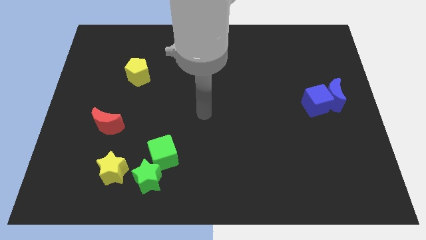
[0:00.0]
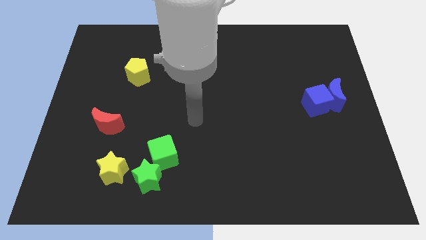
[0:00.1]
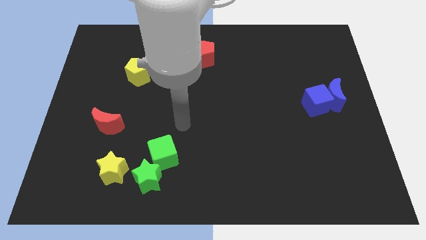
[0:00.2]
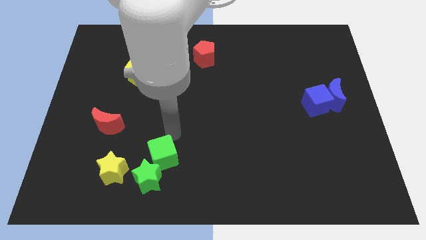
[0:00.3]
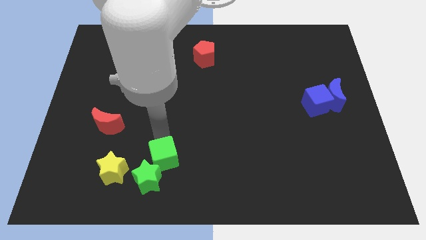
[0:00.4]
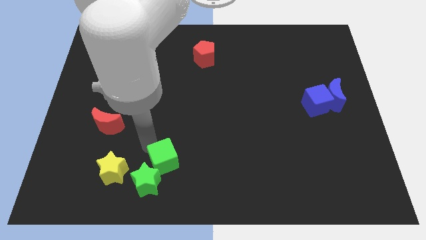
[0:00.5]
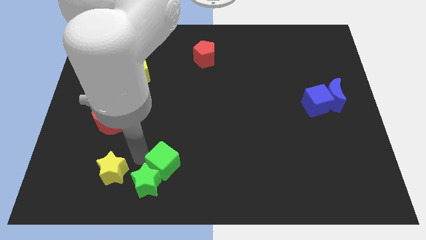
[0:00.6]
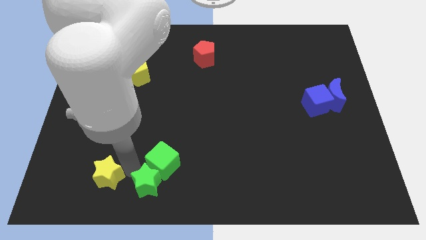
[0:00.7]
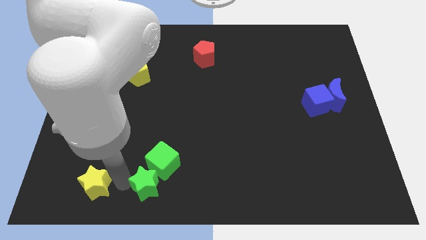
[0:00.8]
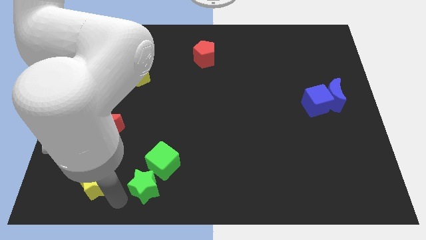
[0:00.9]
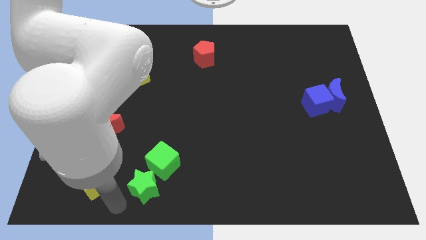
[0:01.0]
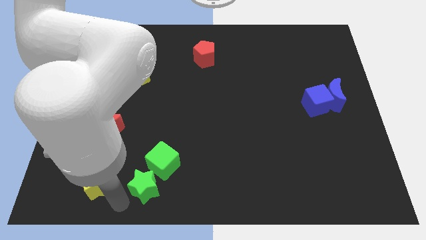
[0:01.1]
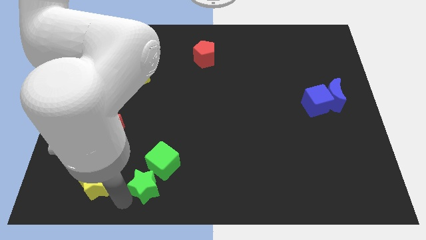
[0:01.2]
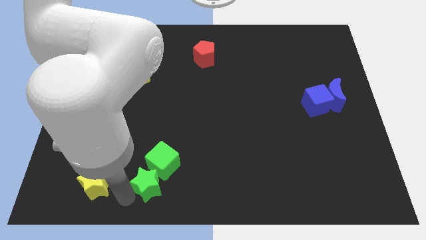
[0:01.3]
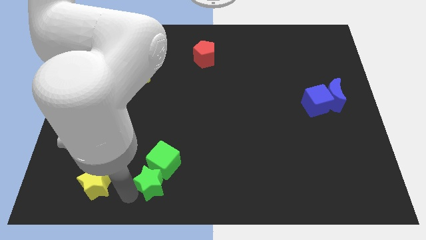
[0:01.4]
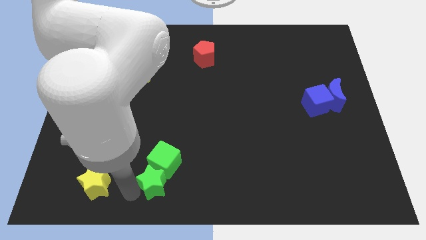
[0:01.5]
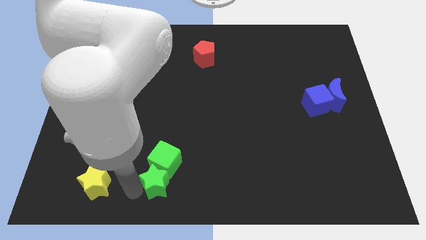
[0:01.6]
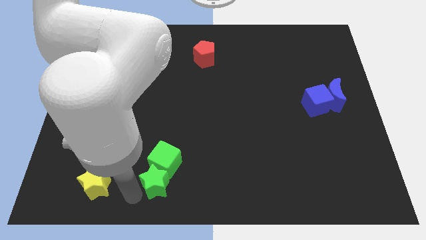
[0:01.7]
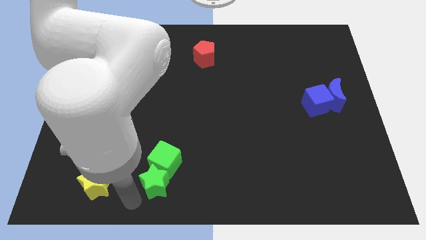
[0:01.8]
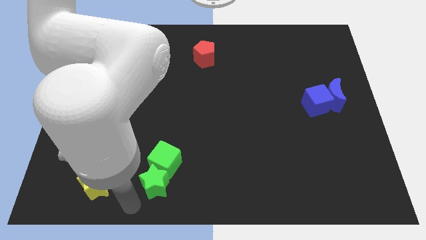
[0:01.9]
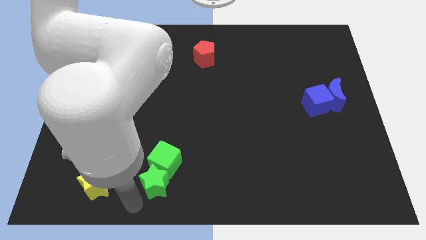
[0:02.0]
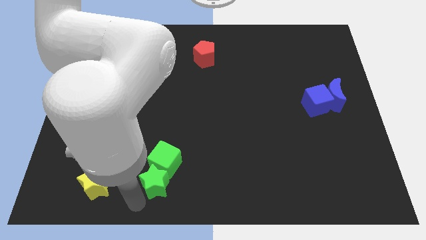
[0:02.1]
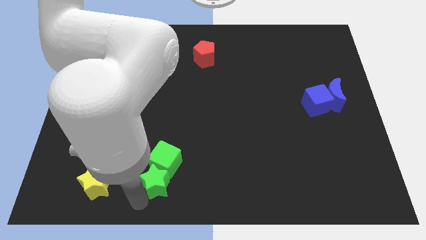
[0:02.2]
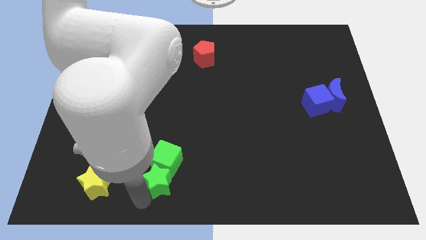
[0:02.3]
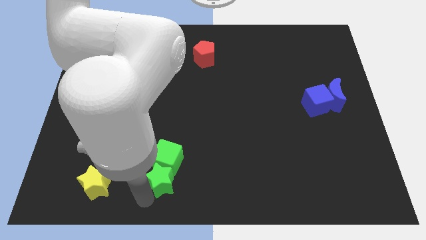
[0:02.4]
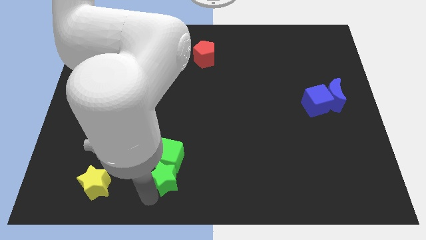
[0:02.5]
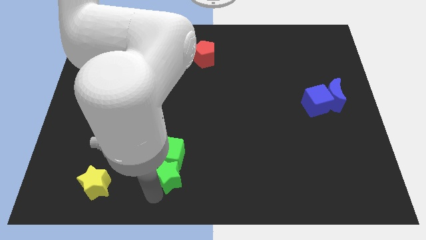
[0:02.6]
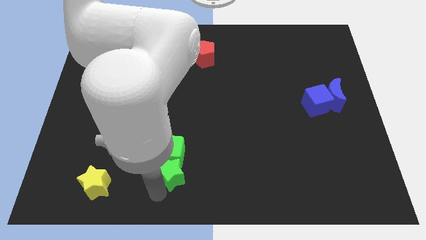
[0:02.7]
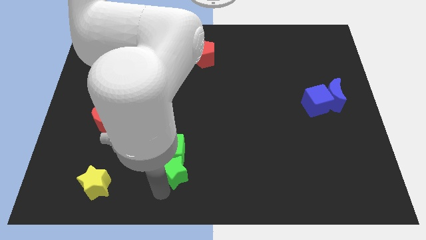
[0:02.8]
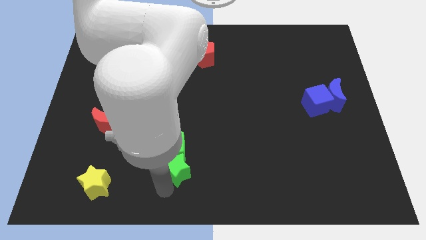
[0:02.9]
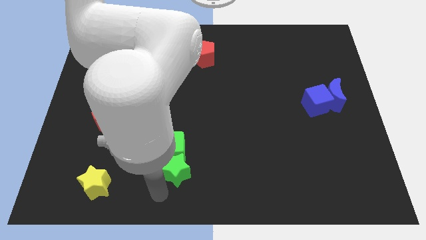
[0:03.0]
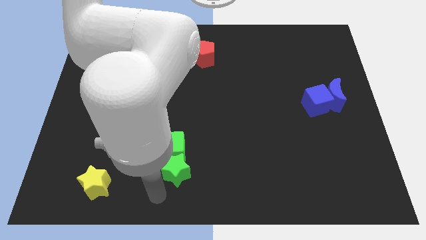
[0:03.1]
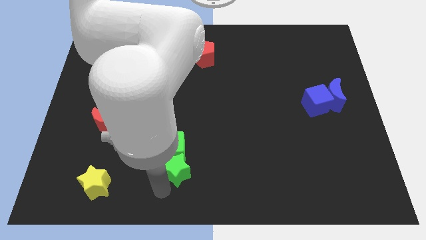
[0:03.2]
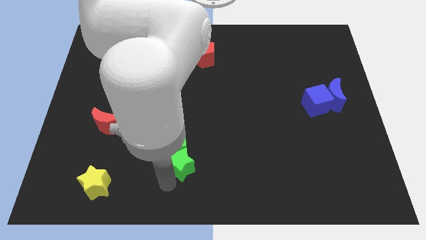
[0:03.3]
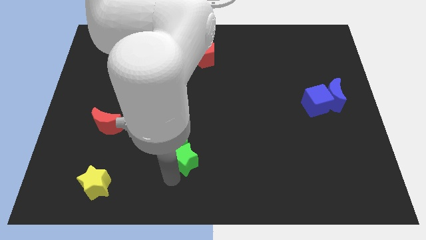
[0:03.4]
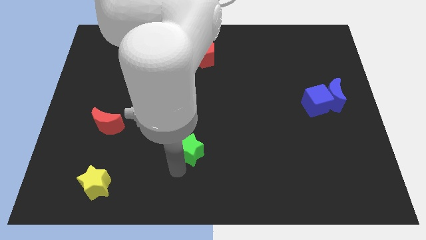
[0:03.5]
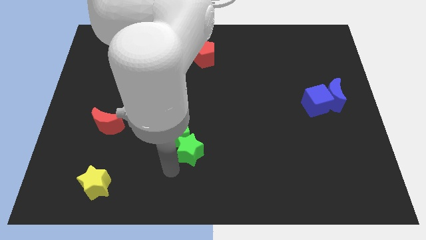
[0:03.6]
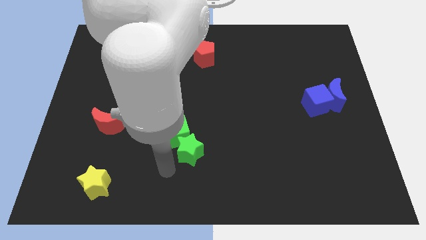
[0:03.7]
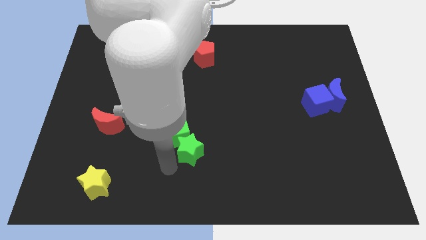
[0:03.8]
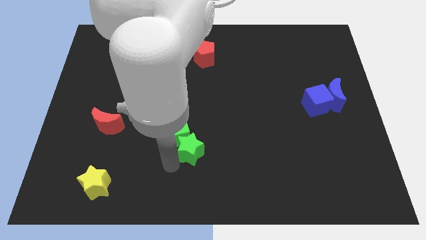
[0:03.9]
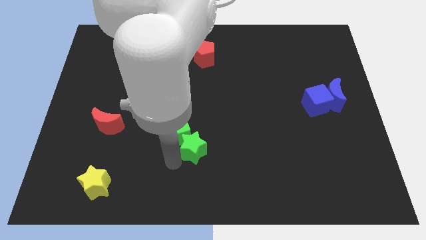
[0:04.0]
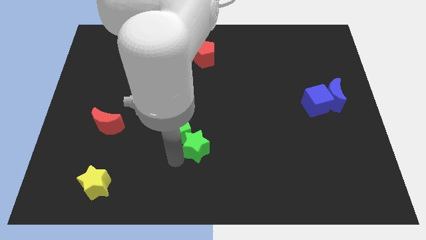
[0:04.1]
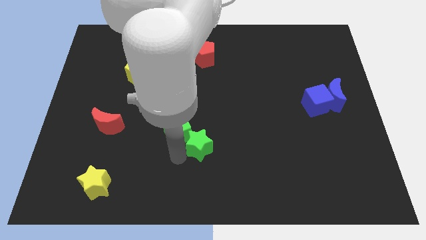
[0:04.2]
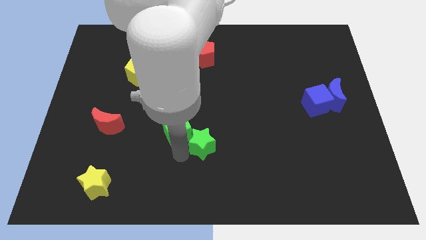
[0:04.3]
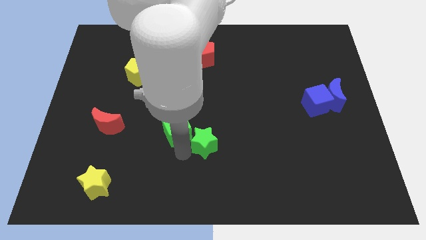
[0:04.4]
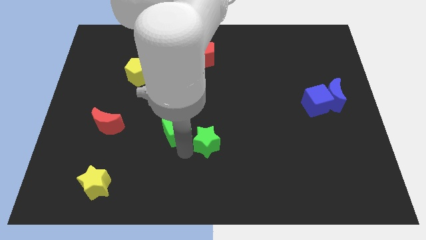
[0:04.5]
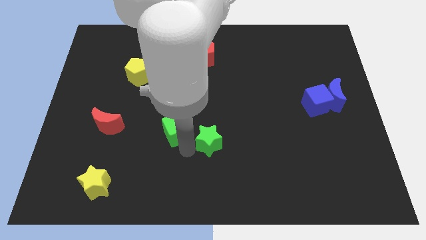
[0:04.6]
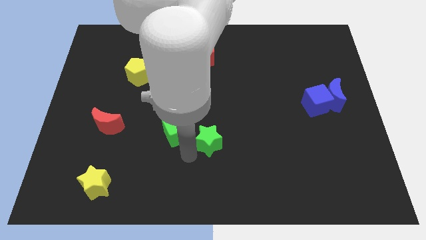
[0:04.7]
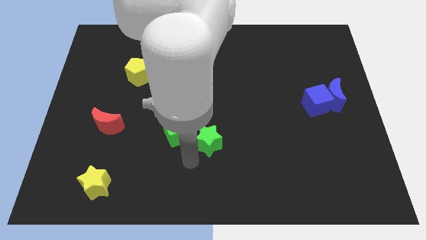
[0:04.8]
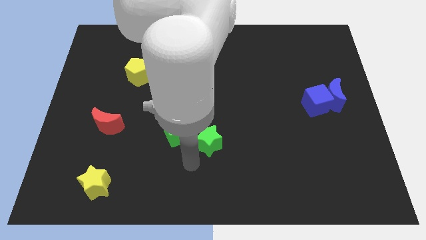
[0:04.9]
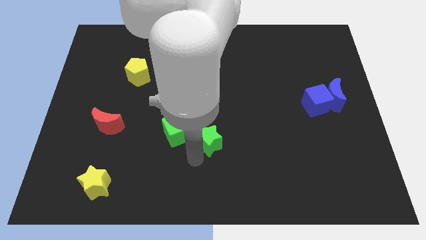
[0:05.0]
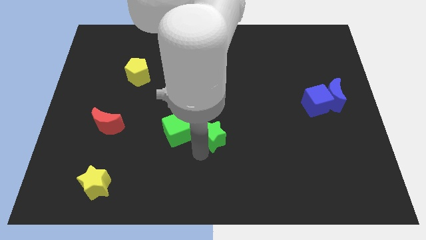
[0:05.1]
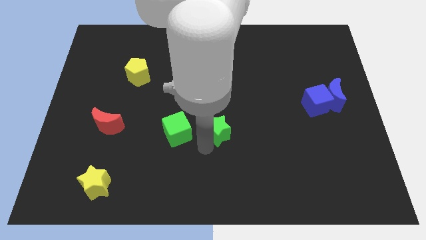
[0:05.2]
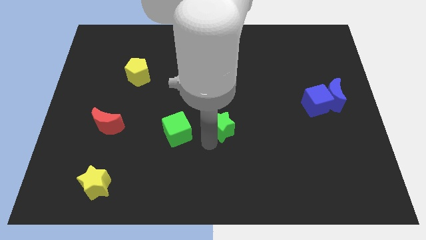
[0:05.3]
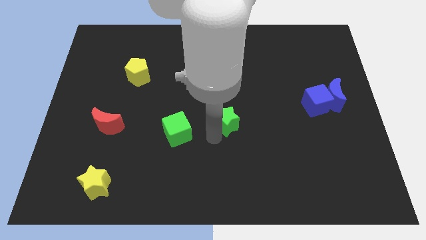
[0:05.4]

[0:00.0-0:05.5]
push the green star up and to the right

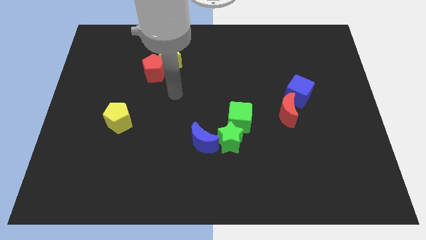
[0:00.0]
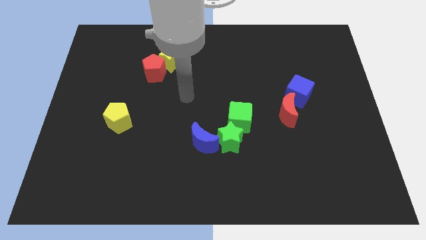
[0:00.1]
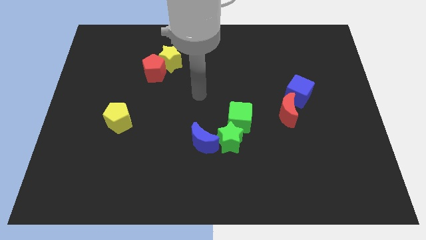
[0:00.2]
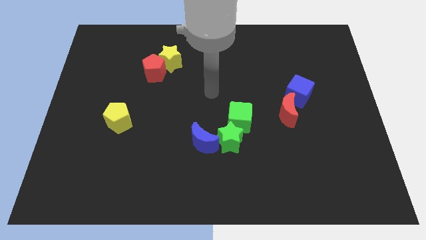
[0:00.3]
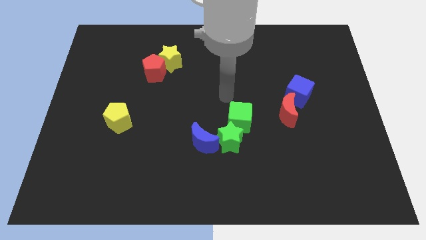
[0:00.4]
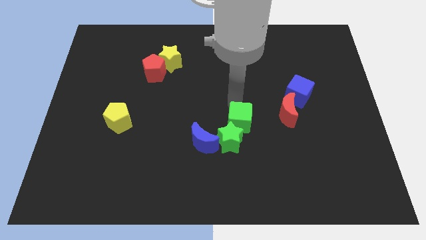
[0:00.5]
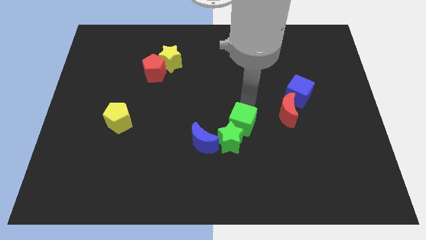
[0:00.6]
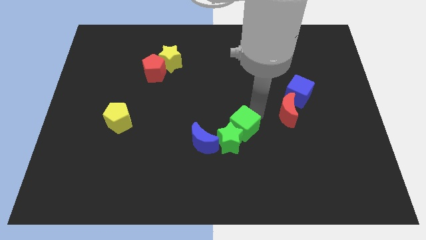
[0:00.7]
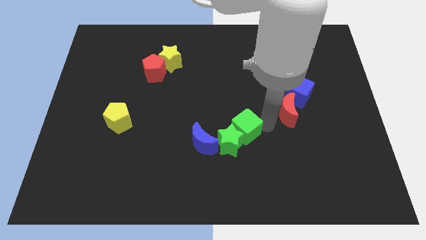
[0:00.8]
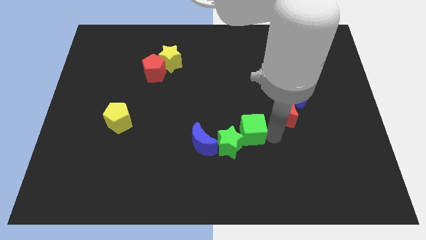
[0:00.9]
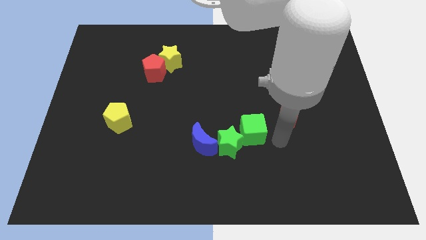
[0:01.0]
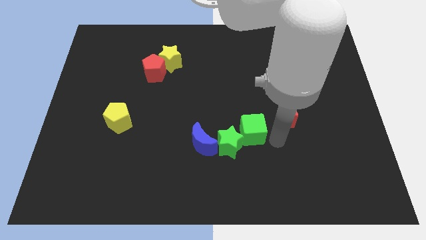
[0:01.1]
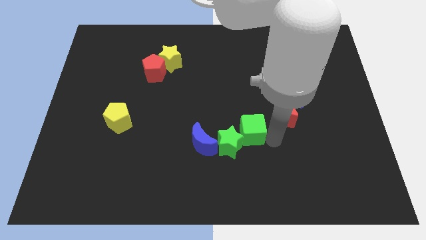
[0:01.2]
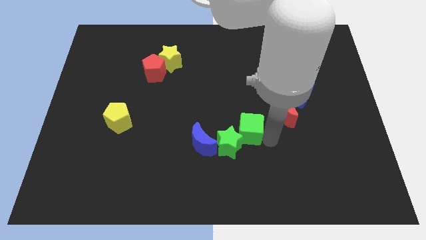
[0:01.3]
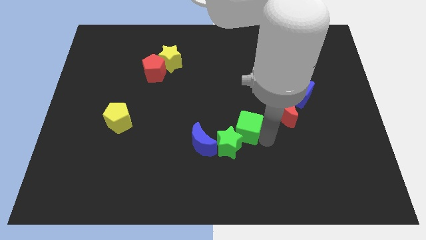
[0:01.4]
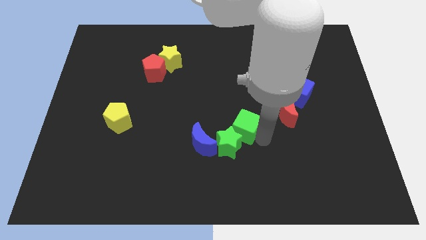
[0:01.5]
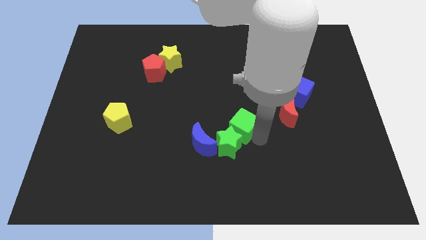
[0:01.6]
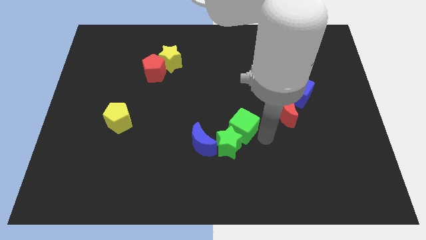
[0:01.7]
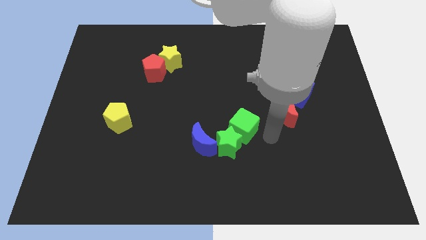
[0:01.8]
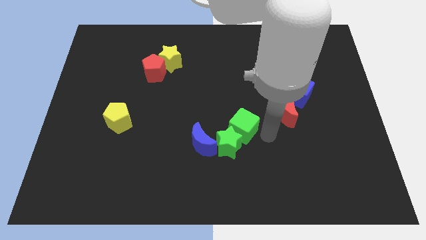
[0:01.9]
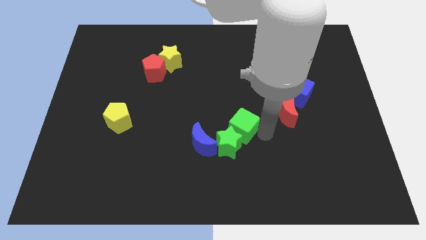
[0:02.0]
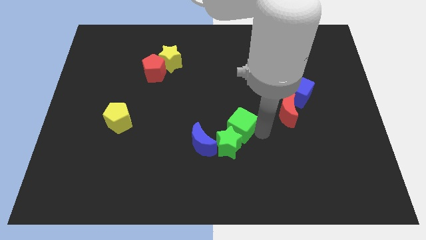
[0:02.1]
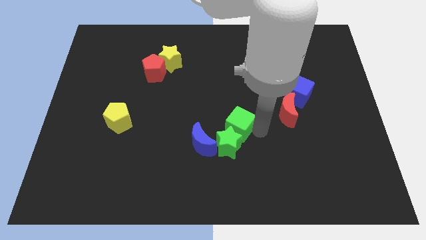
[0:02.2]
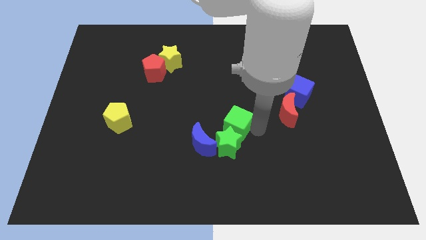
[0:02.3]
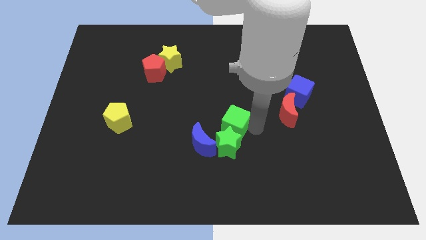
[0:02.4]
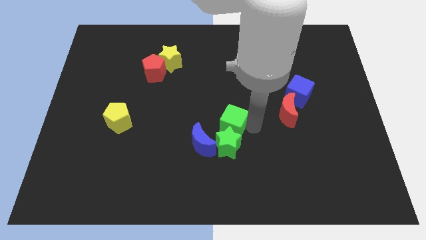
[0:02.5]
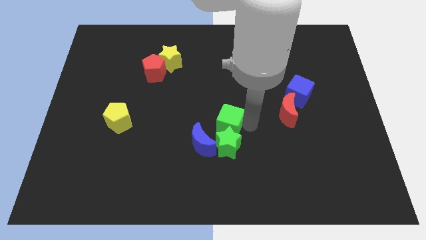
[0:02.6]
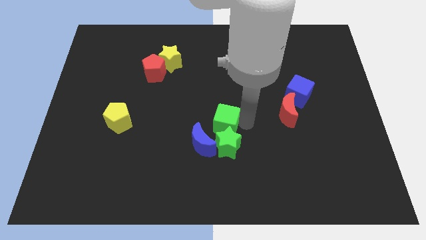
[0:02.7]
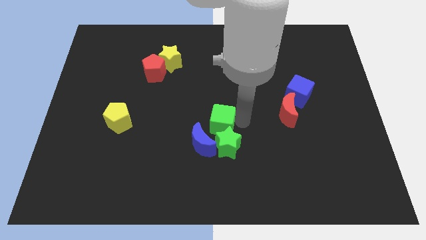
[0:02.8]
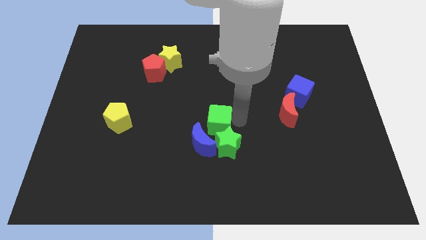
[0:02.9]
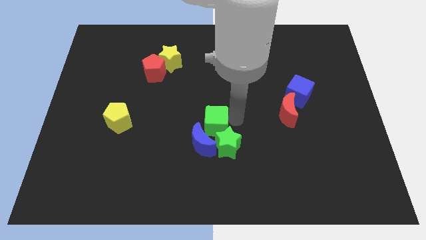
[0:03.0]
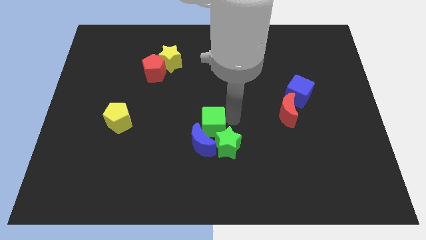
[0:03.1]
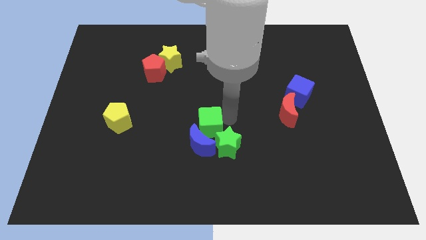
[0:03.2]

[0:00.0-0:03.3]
move the green cube to the left slightly
